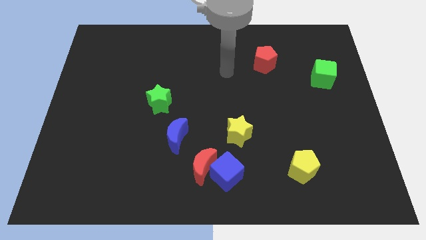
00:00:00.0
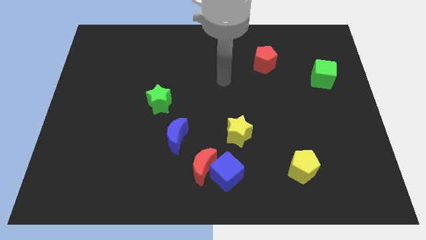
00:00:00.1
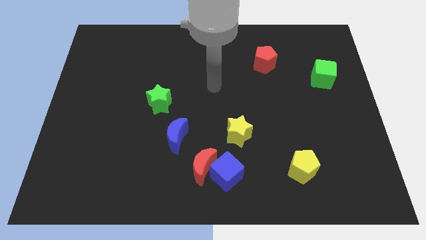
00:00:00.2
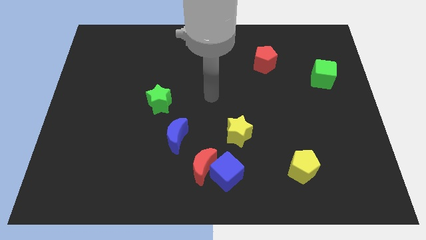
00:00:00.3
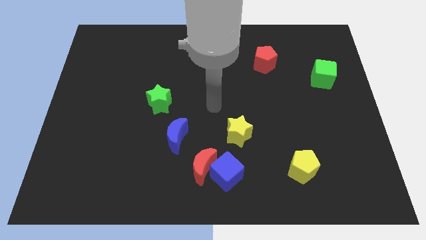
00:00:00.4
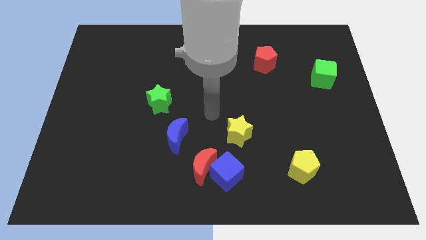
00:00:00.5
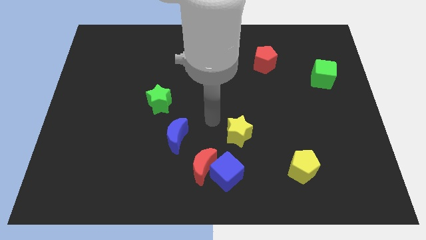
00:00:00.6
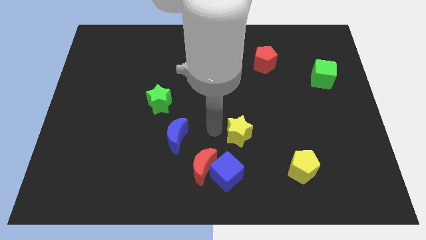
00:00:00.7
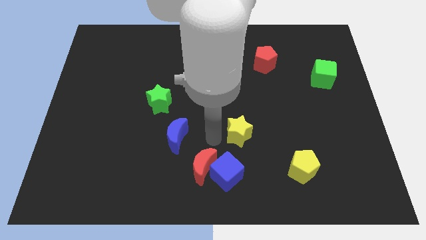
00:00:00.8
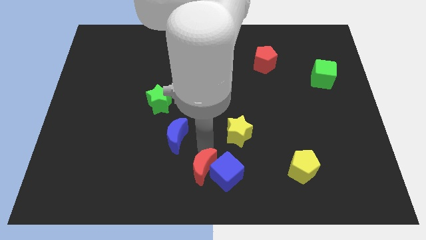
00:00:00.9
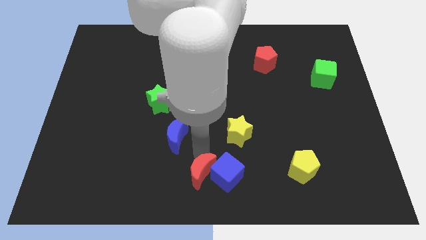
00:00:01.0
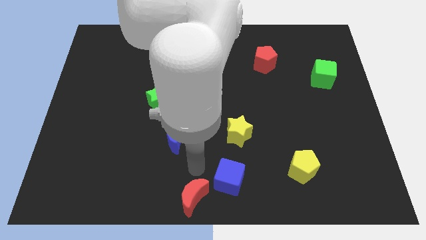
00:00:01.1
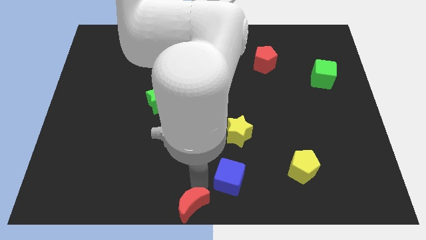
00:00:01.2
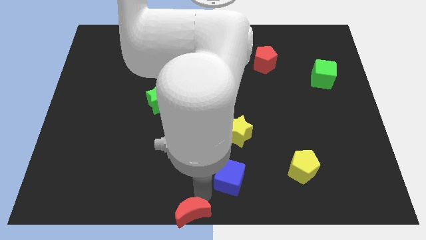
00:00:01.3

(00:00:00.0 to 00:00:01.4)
move the blue cube away from the red moon

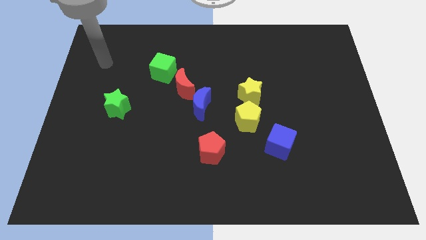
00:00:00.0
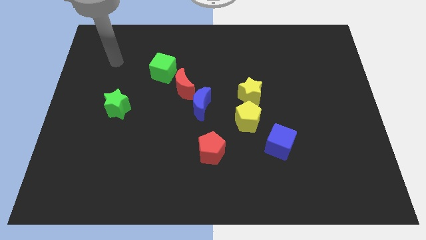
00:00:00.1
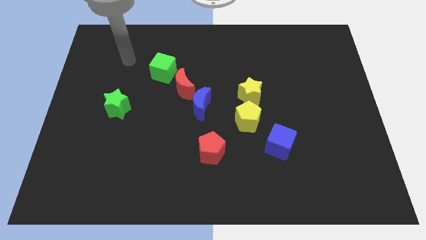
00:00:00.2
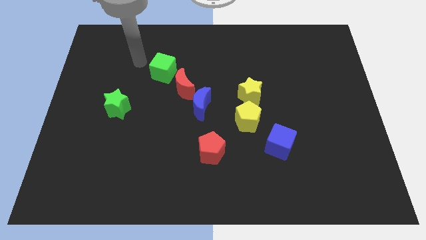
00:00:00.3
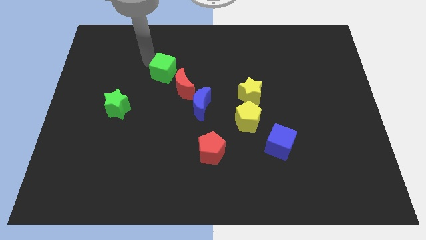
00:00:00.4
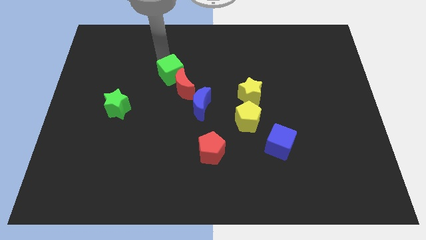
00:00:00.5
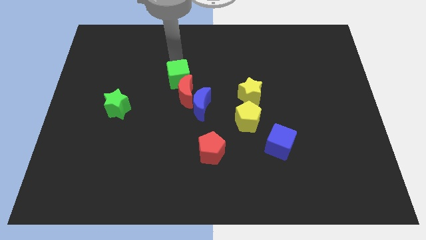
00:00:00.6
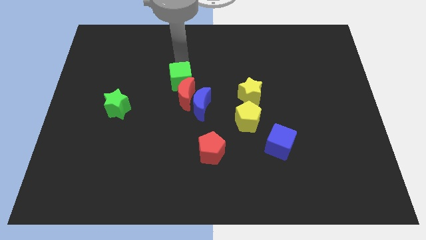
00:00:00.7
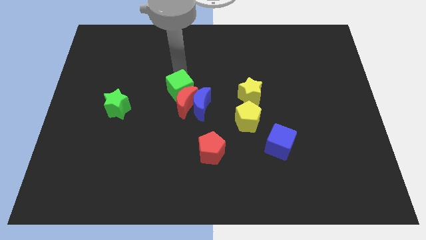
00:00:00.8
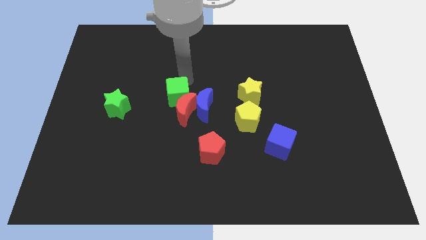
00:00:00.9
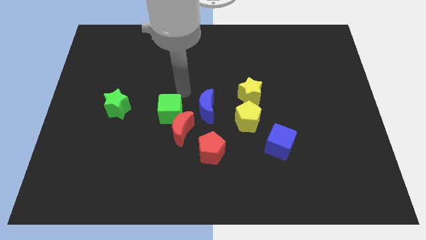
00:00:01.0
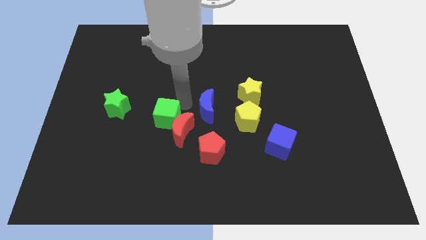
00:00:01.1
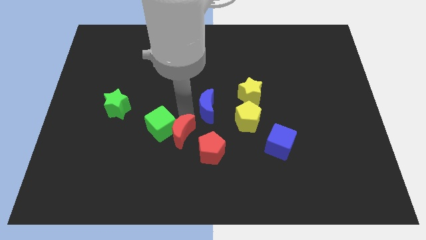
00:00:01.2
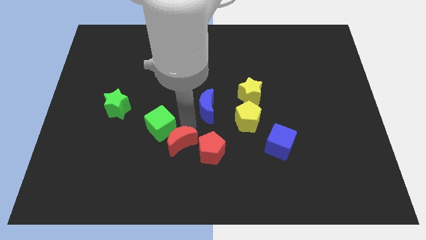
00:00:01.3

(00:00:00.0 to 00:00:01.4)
pull the blue moon apart from the red moon

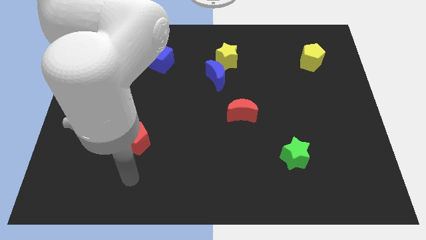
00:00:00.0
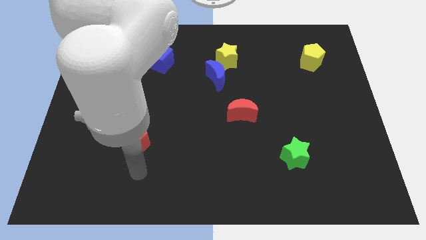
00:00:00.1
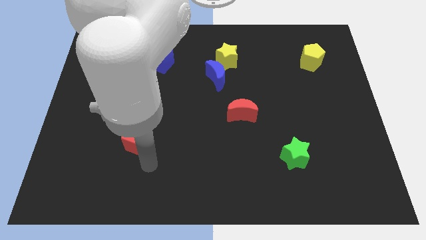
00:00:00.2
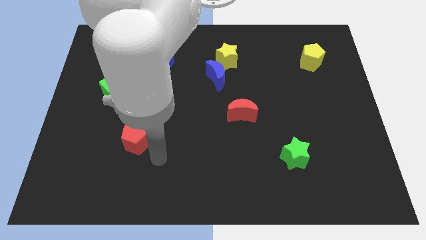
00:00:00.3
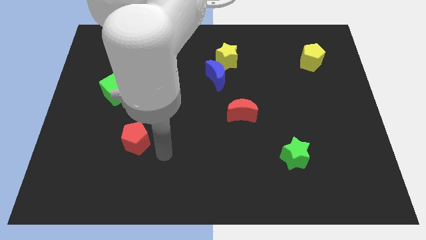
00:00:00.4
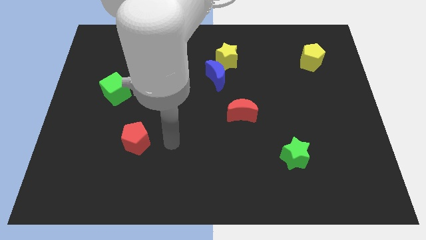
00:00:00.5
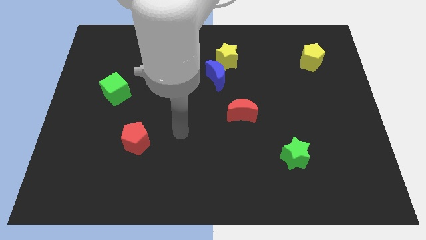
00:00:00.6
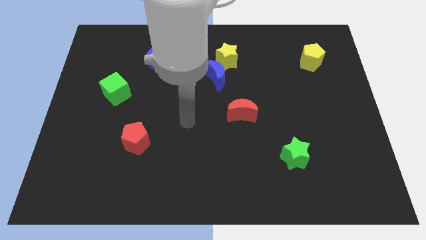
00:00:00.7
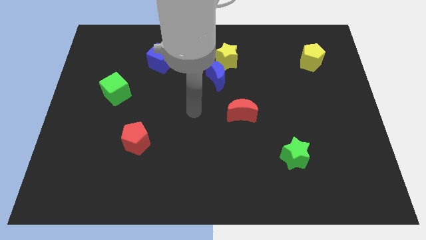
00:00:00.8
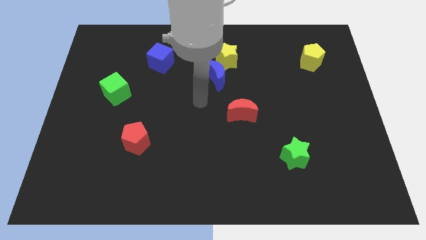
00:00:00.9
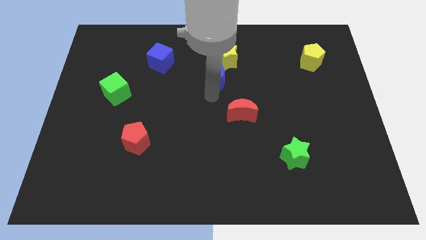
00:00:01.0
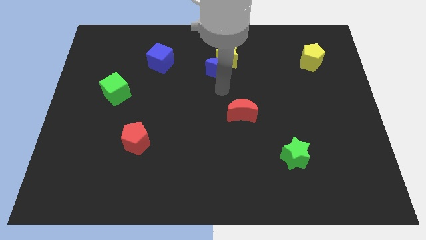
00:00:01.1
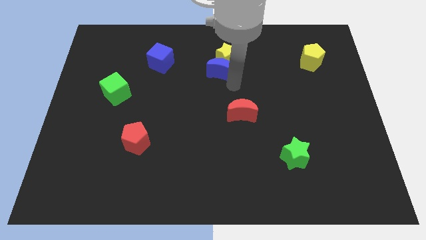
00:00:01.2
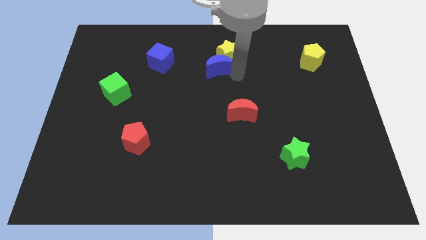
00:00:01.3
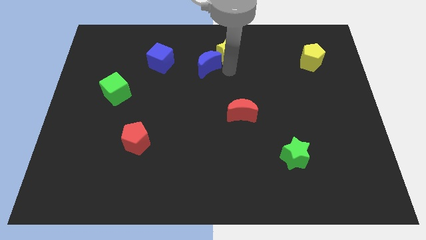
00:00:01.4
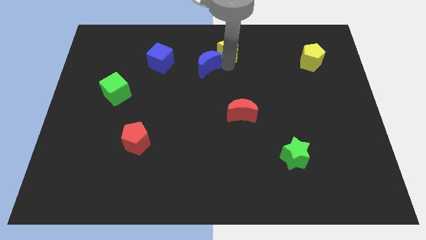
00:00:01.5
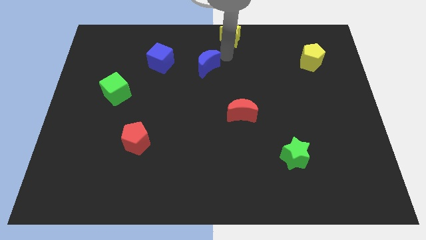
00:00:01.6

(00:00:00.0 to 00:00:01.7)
pull the blue moon apart from the yellow star

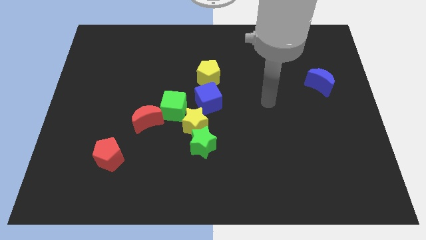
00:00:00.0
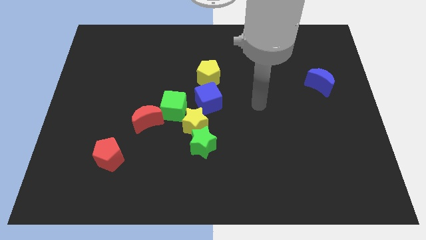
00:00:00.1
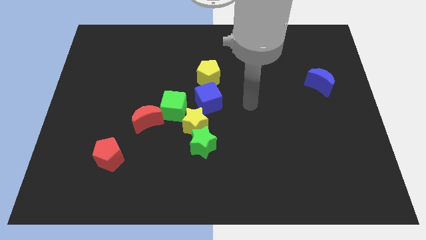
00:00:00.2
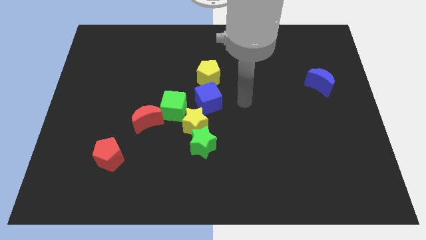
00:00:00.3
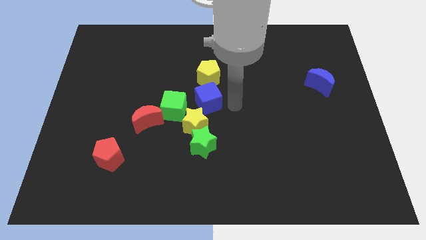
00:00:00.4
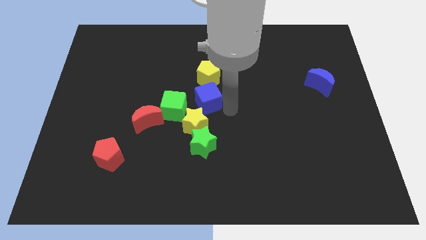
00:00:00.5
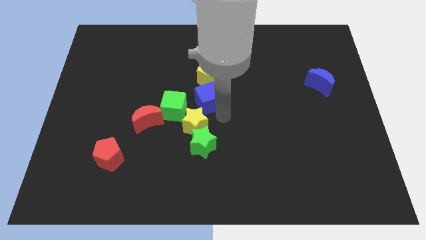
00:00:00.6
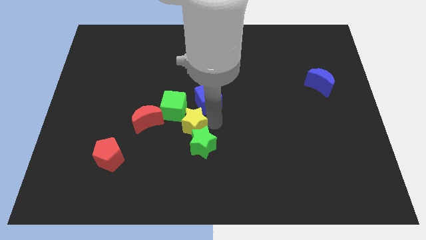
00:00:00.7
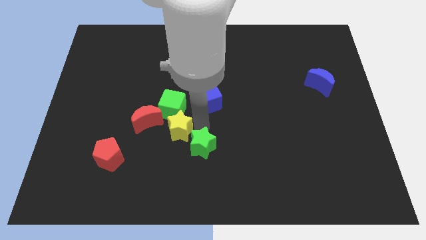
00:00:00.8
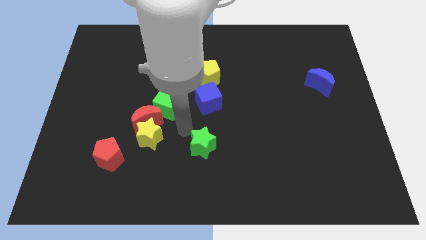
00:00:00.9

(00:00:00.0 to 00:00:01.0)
separate the green star from the yellow star

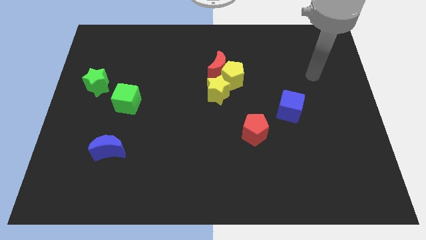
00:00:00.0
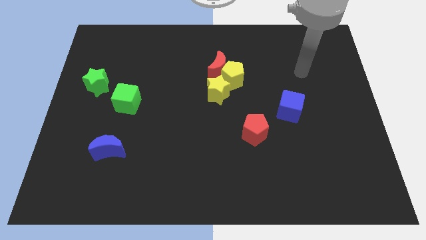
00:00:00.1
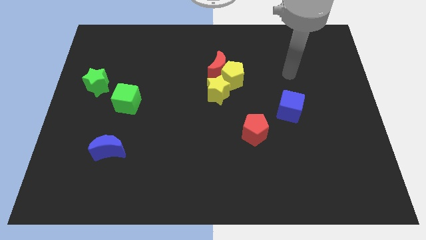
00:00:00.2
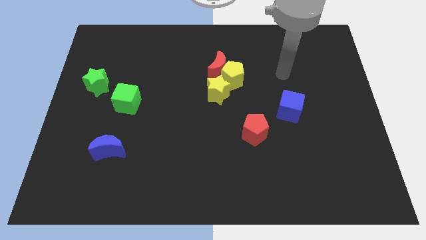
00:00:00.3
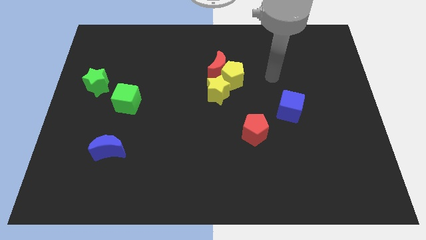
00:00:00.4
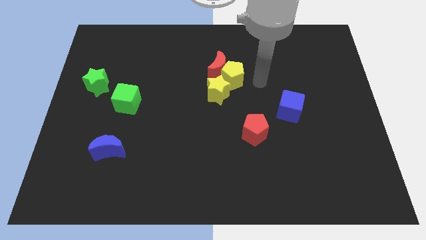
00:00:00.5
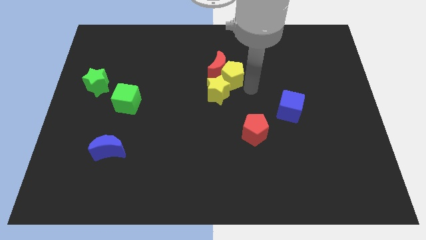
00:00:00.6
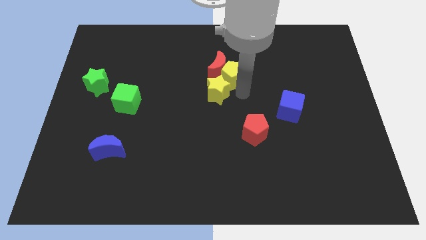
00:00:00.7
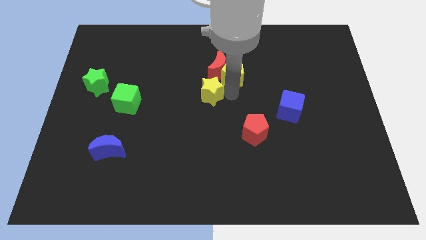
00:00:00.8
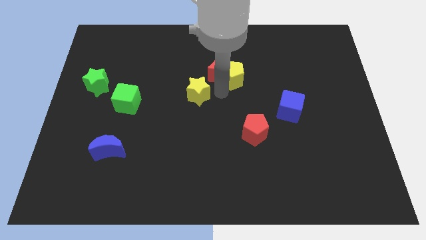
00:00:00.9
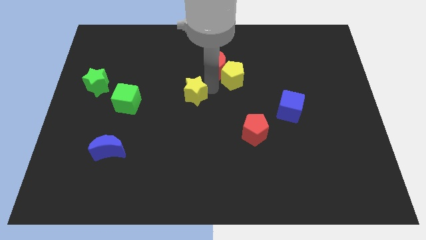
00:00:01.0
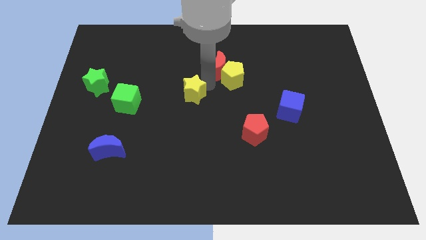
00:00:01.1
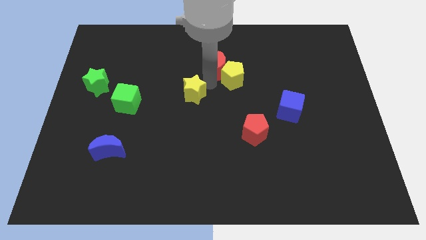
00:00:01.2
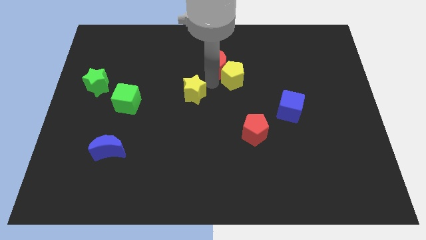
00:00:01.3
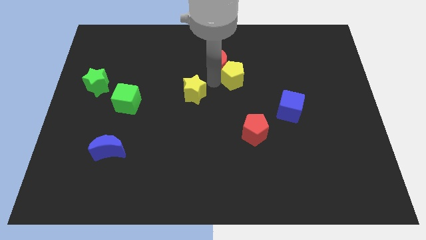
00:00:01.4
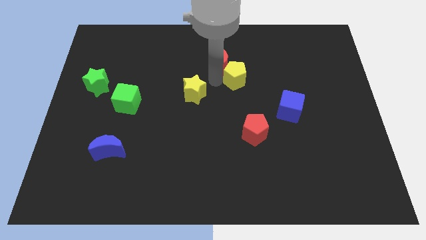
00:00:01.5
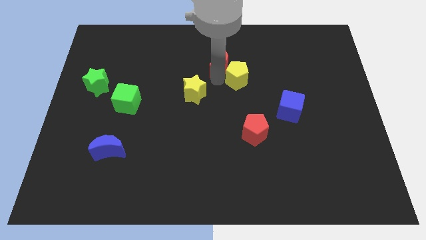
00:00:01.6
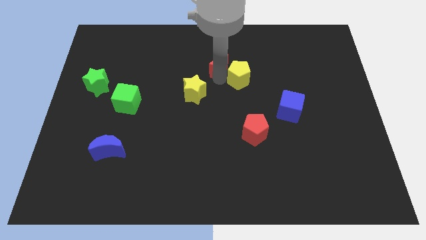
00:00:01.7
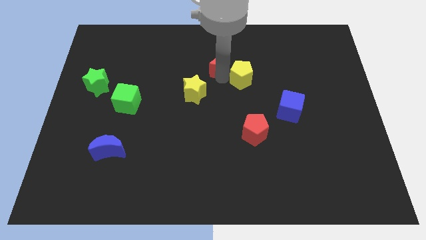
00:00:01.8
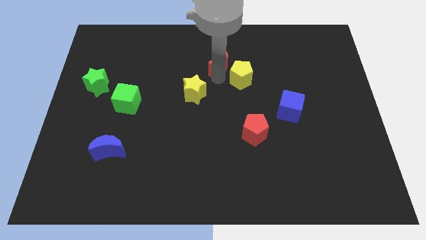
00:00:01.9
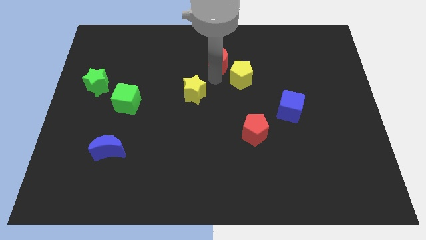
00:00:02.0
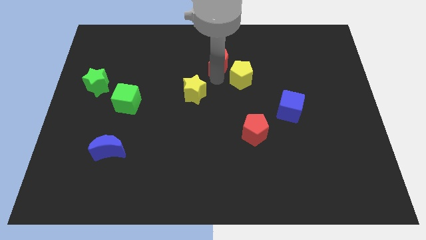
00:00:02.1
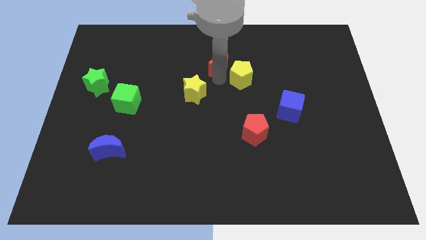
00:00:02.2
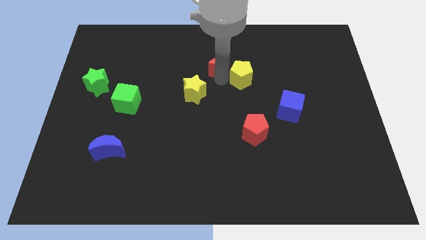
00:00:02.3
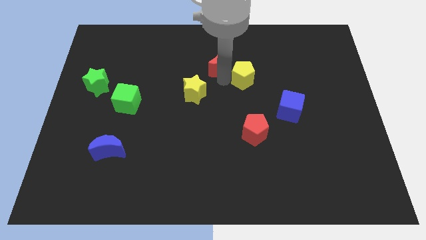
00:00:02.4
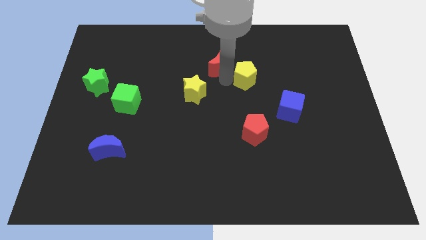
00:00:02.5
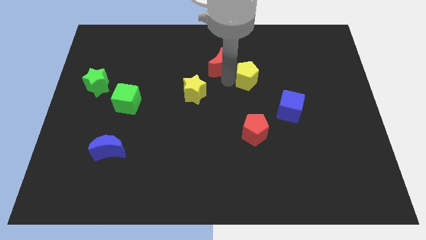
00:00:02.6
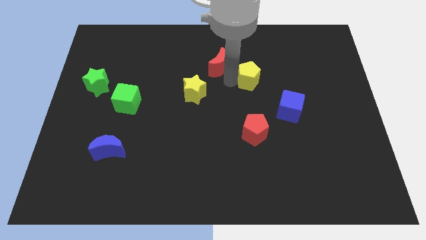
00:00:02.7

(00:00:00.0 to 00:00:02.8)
separate the yellow pentagon from the red moon and yellow star

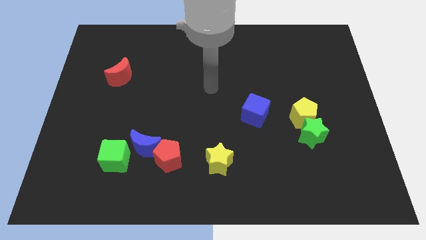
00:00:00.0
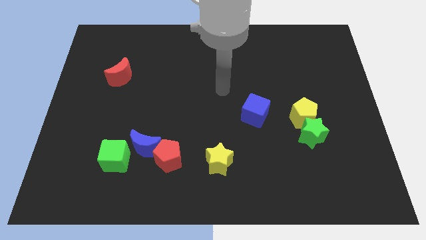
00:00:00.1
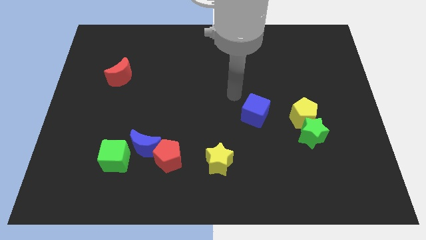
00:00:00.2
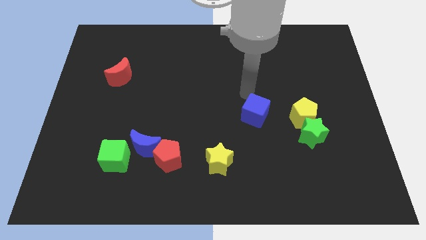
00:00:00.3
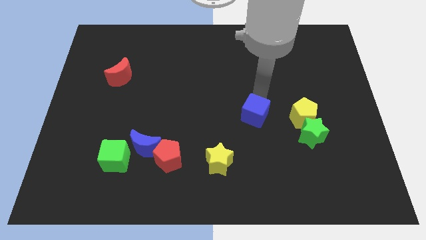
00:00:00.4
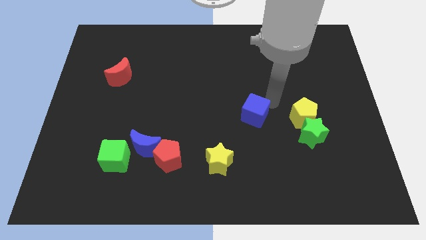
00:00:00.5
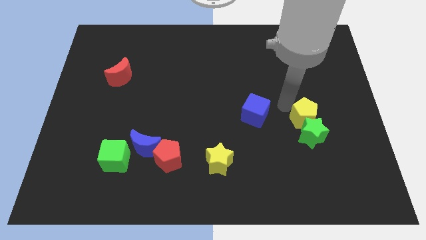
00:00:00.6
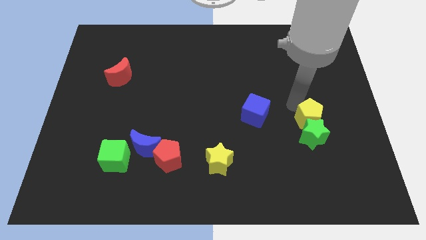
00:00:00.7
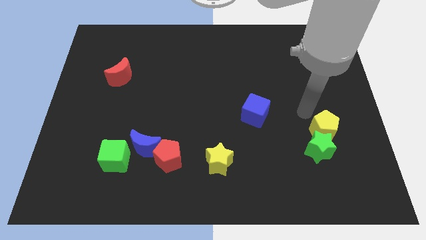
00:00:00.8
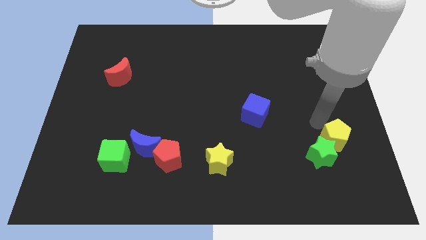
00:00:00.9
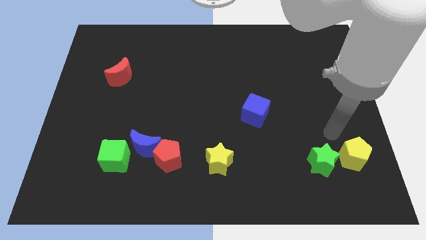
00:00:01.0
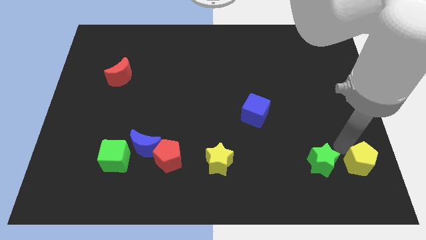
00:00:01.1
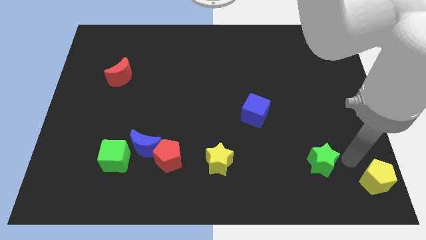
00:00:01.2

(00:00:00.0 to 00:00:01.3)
pull the green star apart from the yellow pentagon
